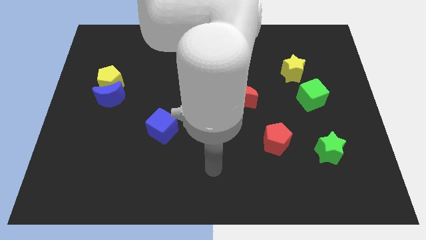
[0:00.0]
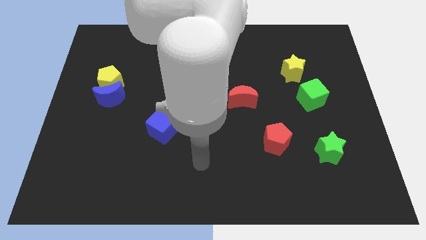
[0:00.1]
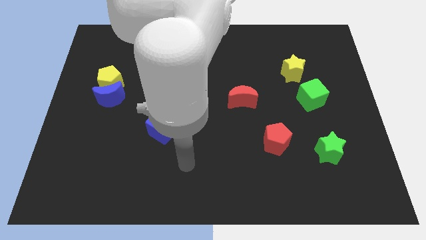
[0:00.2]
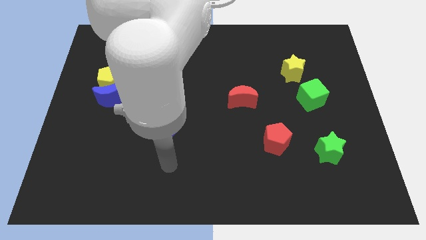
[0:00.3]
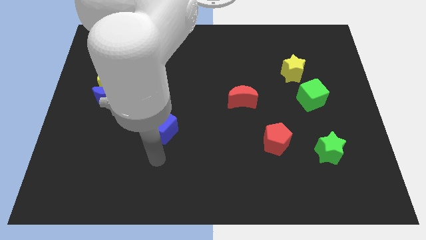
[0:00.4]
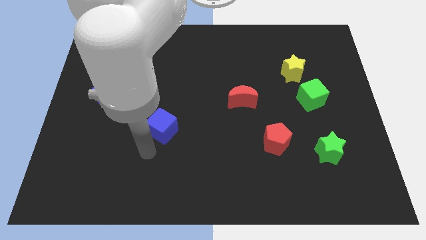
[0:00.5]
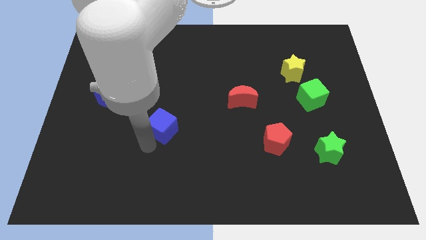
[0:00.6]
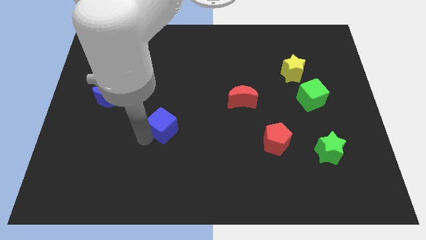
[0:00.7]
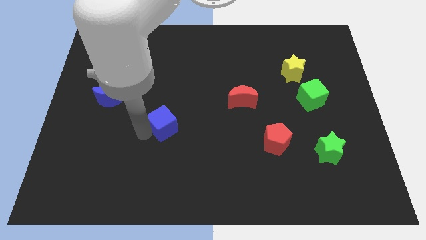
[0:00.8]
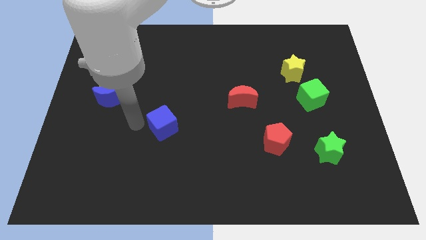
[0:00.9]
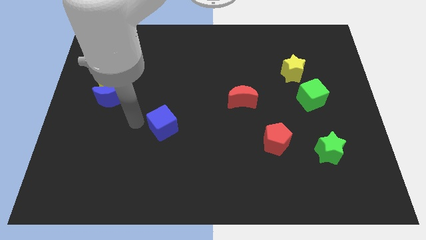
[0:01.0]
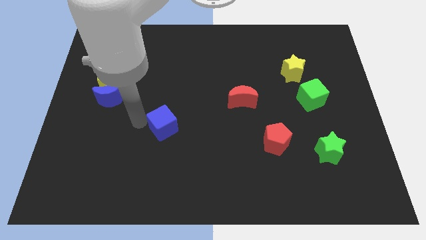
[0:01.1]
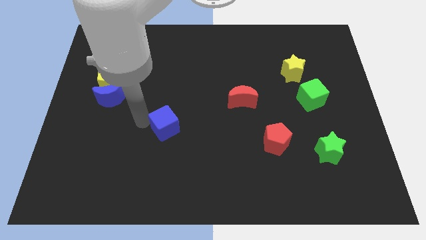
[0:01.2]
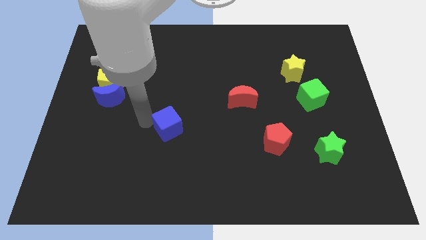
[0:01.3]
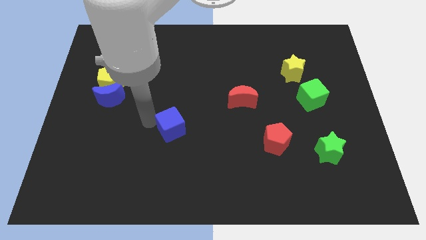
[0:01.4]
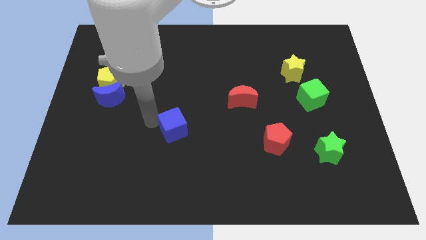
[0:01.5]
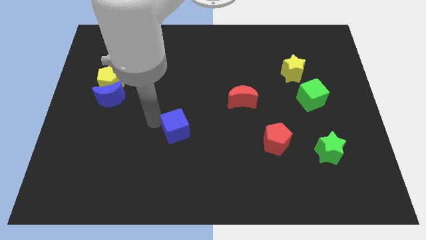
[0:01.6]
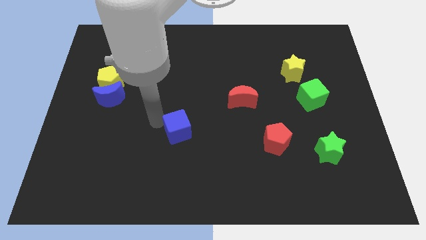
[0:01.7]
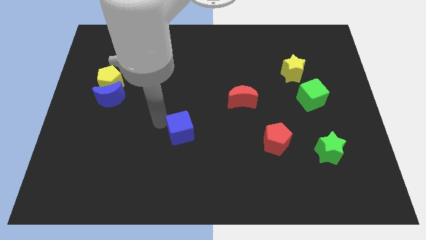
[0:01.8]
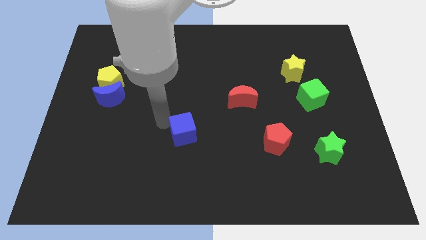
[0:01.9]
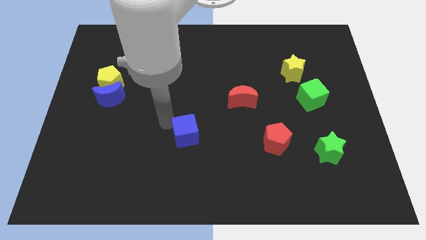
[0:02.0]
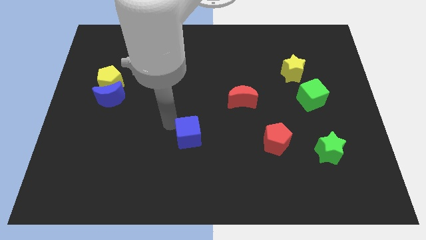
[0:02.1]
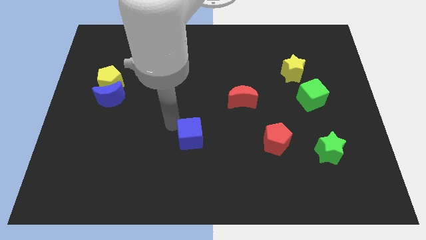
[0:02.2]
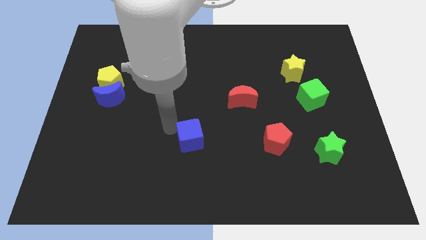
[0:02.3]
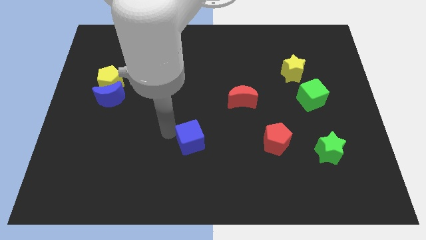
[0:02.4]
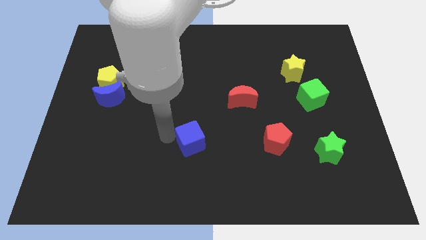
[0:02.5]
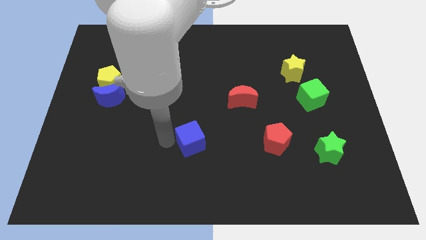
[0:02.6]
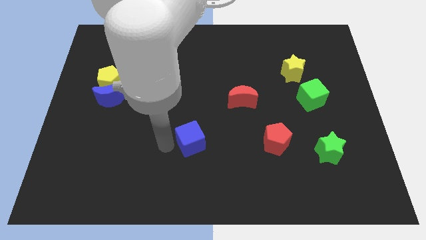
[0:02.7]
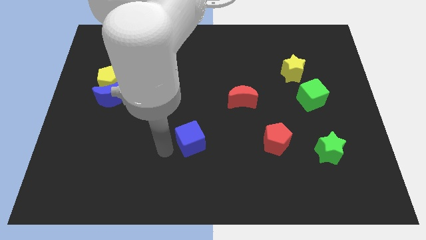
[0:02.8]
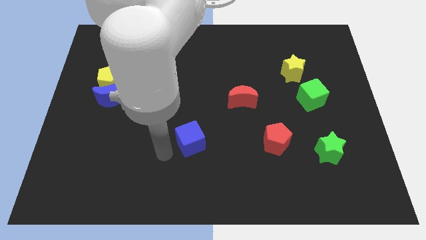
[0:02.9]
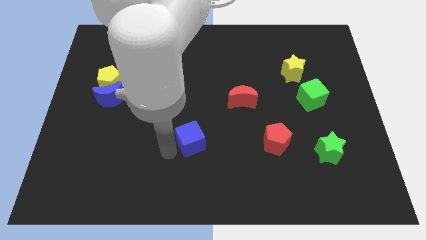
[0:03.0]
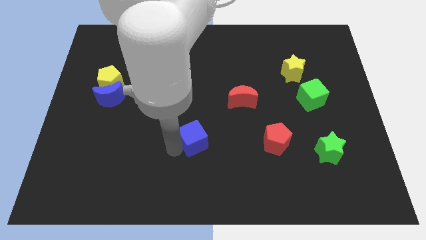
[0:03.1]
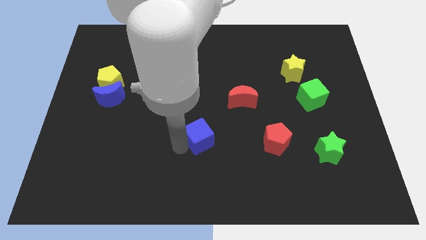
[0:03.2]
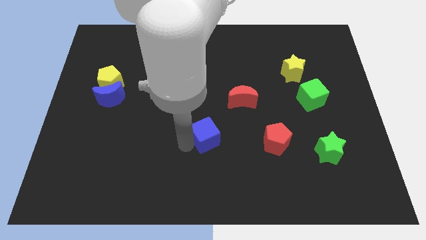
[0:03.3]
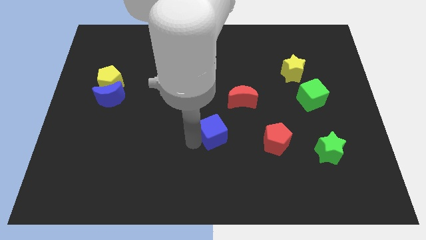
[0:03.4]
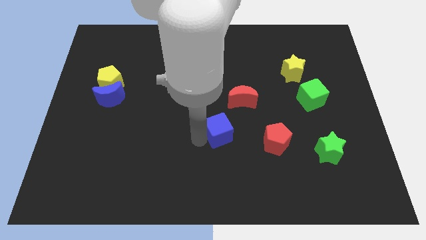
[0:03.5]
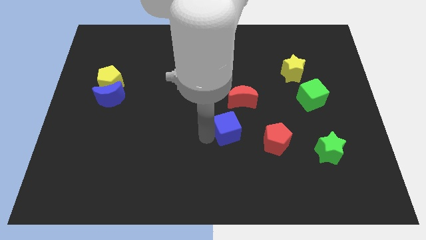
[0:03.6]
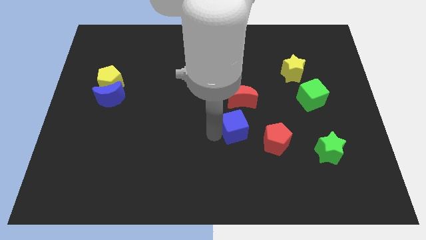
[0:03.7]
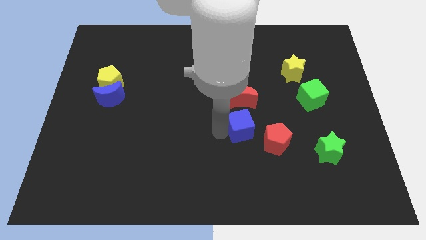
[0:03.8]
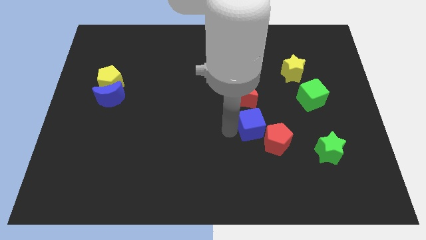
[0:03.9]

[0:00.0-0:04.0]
move the blue cube to the right

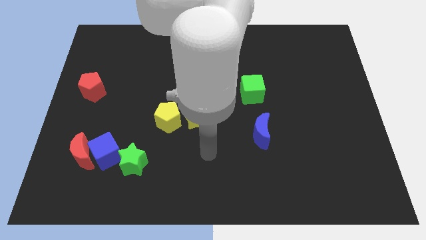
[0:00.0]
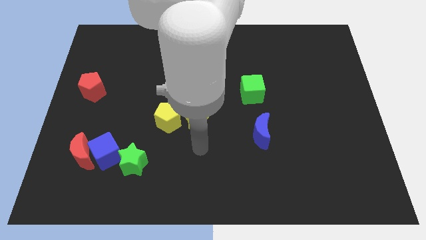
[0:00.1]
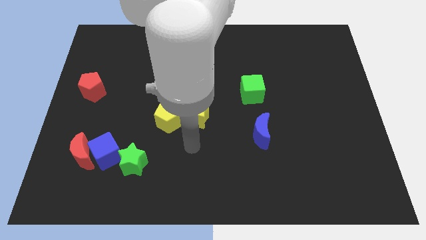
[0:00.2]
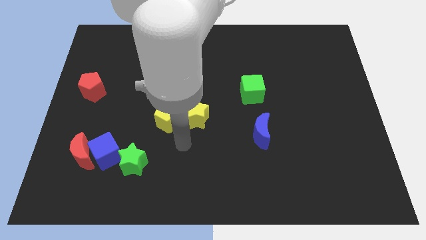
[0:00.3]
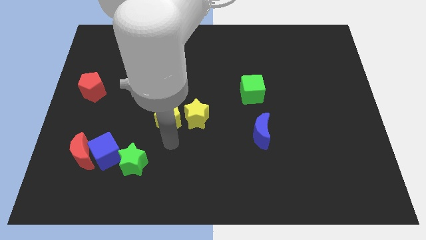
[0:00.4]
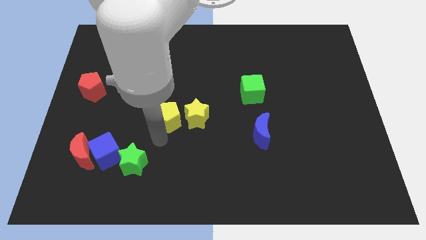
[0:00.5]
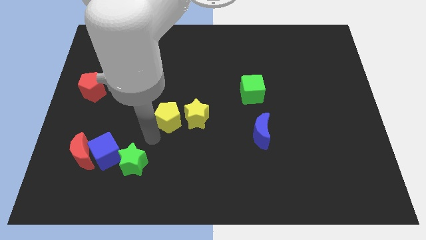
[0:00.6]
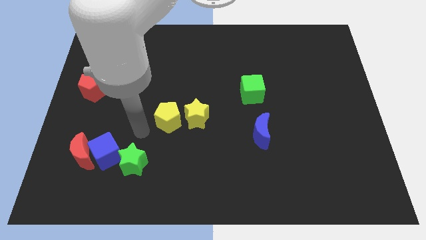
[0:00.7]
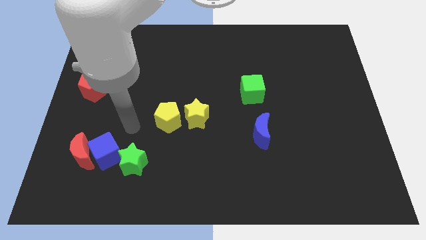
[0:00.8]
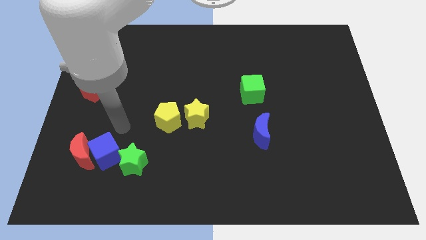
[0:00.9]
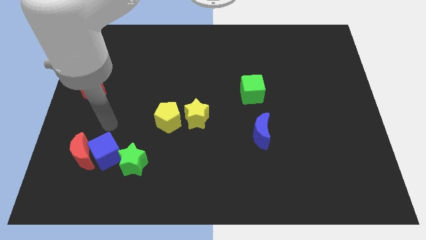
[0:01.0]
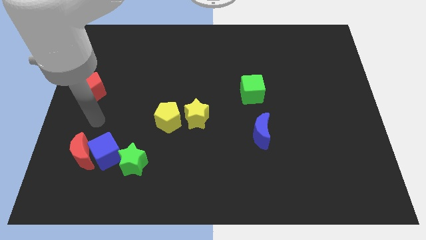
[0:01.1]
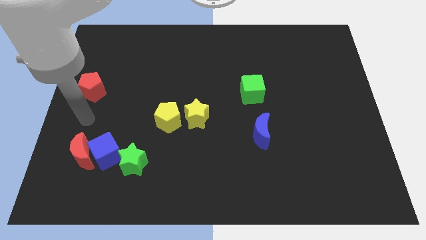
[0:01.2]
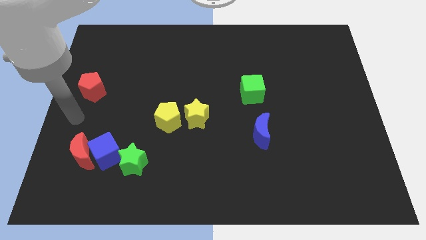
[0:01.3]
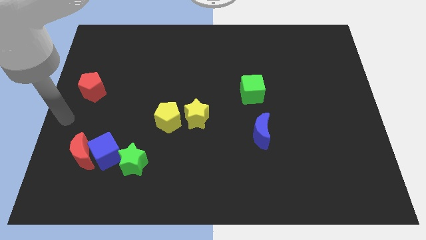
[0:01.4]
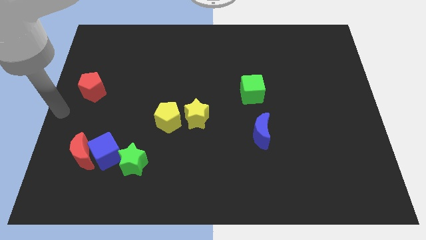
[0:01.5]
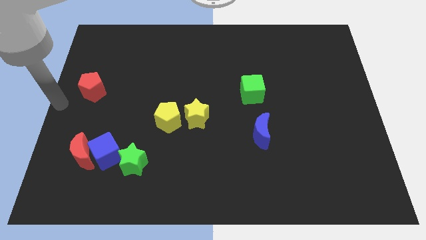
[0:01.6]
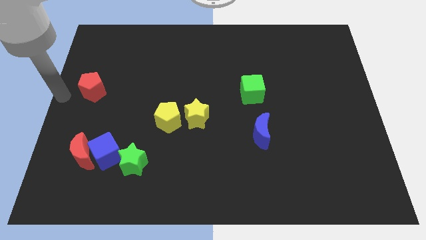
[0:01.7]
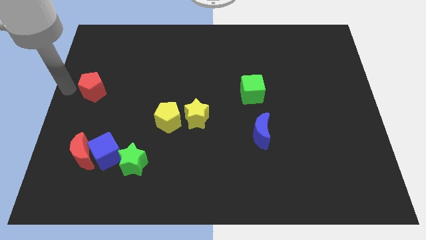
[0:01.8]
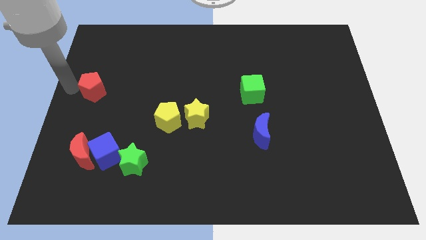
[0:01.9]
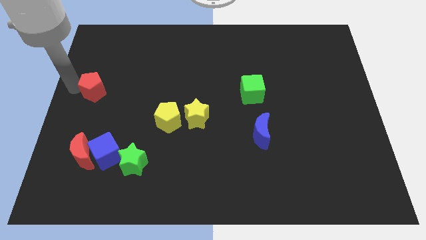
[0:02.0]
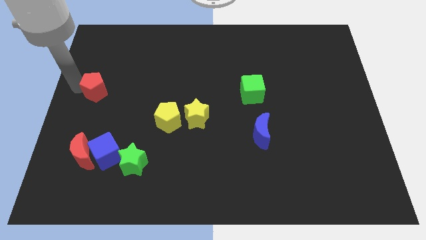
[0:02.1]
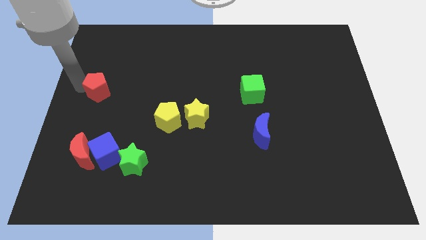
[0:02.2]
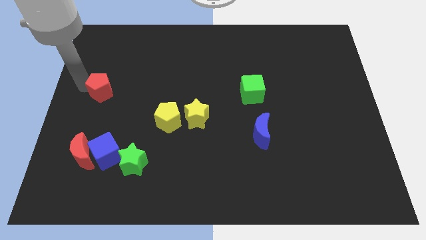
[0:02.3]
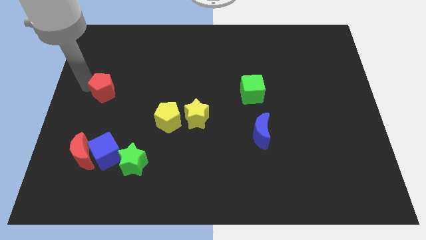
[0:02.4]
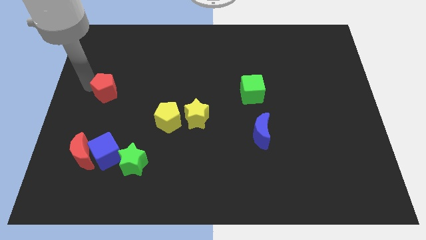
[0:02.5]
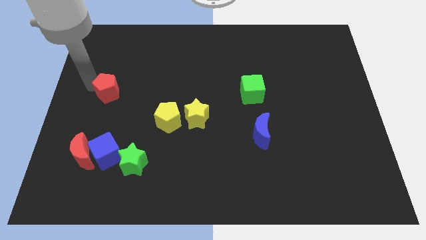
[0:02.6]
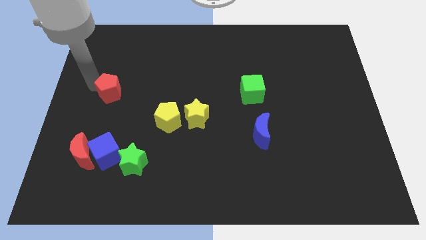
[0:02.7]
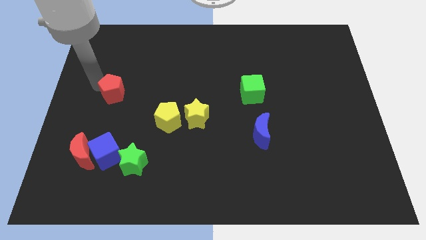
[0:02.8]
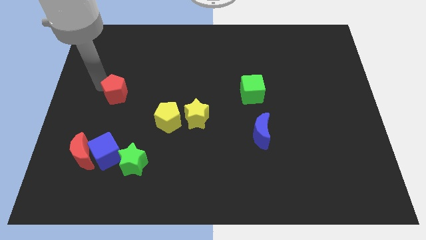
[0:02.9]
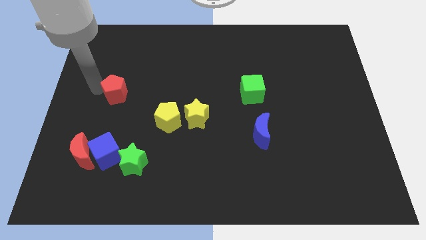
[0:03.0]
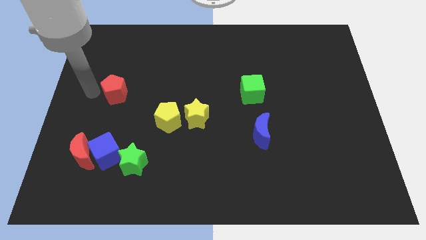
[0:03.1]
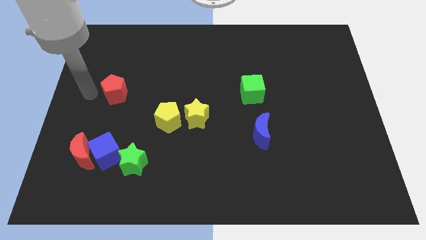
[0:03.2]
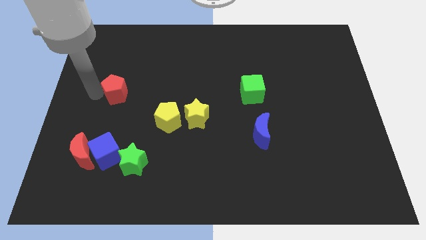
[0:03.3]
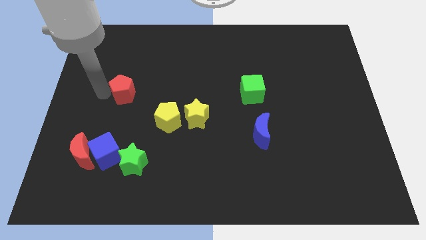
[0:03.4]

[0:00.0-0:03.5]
move the red pentagon right slightly
